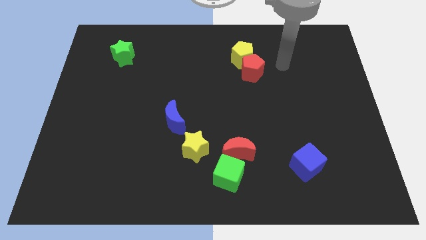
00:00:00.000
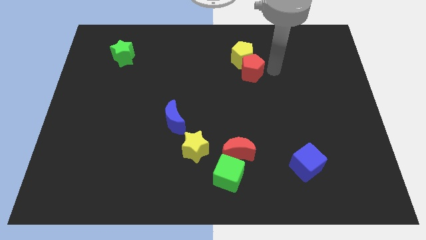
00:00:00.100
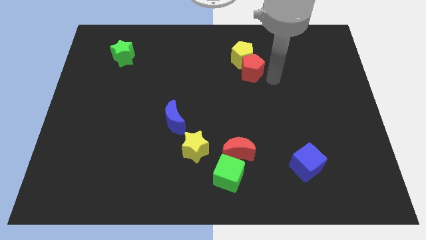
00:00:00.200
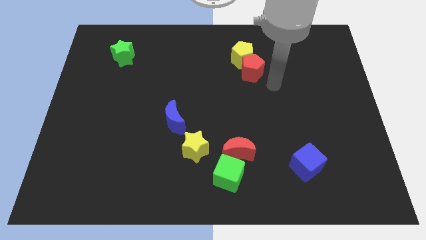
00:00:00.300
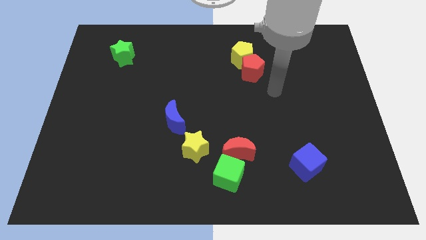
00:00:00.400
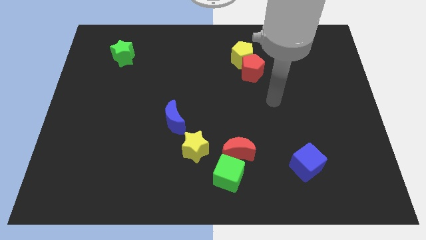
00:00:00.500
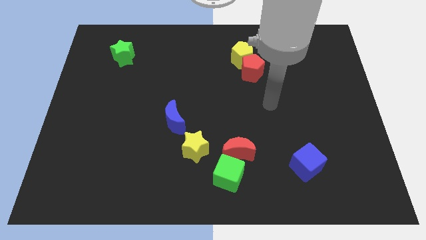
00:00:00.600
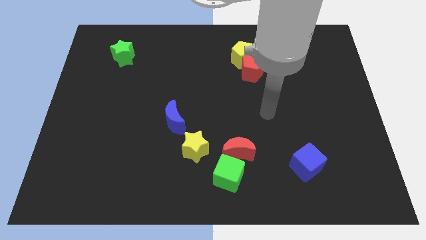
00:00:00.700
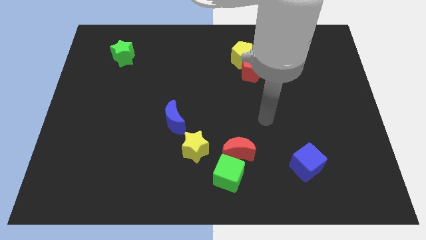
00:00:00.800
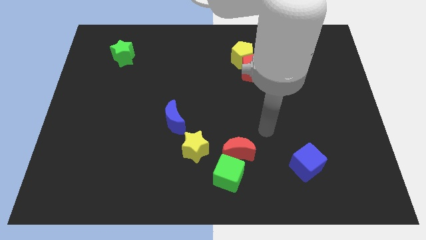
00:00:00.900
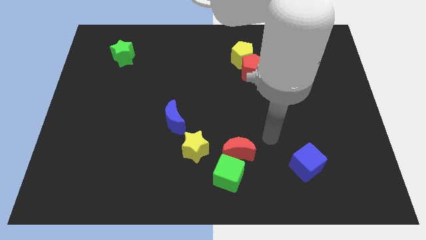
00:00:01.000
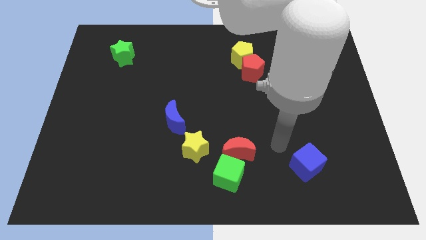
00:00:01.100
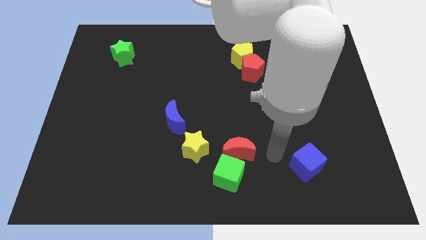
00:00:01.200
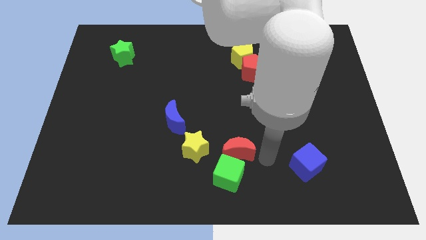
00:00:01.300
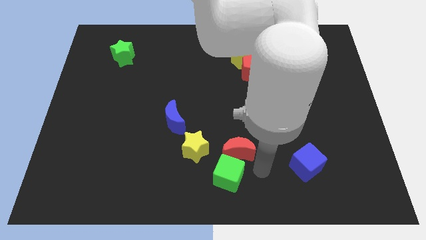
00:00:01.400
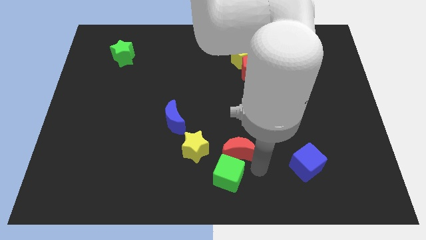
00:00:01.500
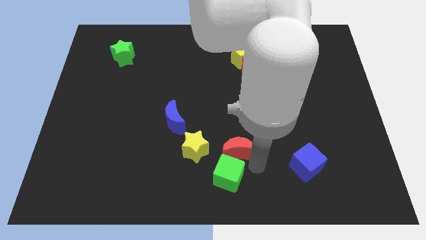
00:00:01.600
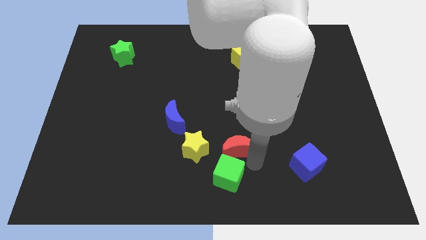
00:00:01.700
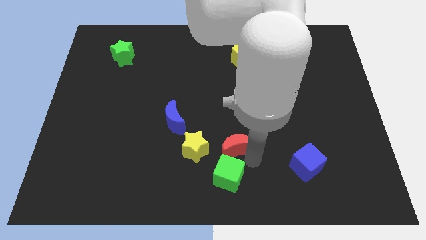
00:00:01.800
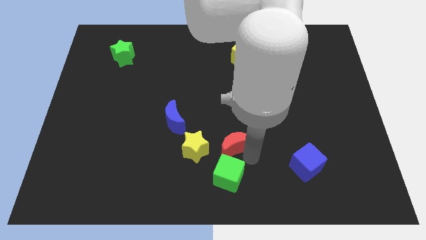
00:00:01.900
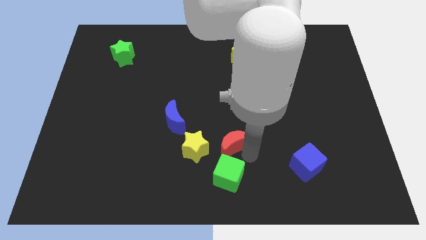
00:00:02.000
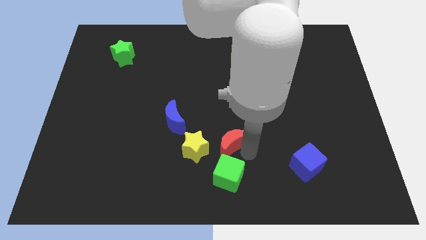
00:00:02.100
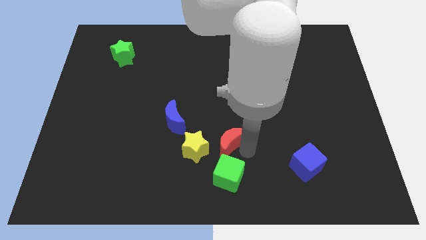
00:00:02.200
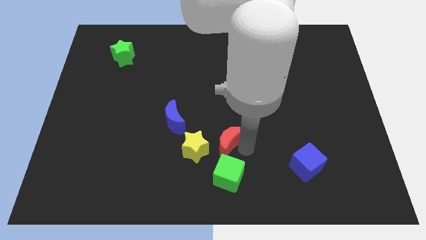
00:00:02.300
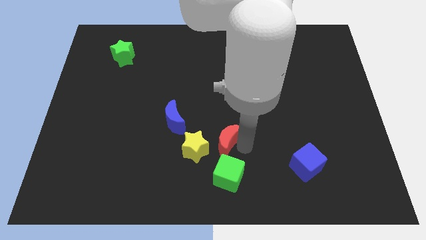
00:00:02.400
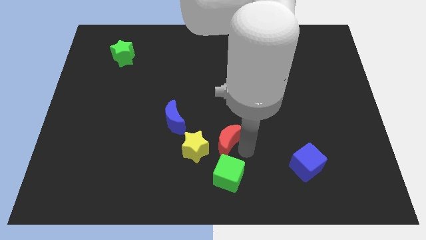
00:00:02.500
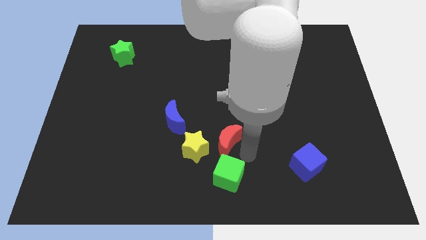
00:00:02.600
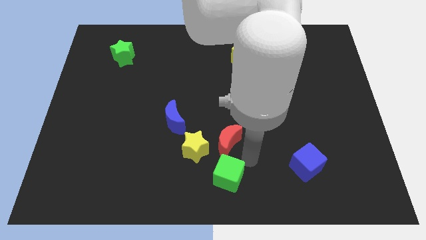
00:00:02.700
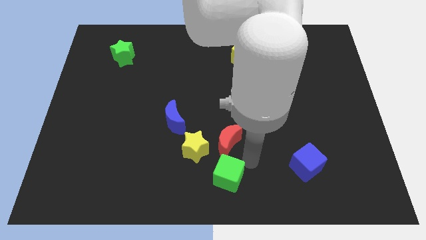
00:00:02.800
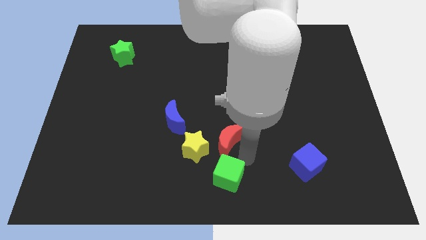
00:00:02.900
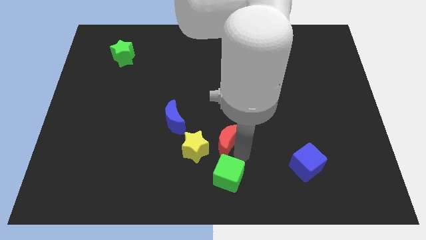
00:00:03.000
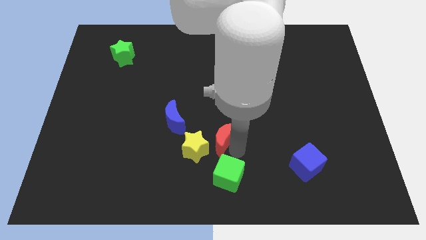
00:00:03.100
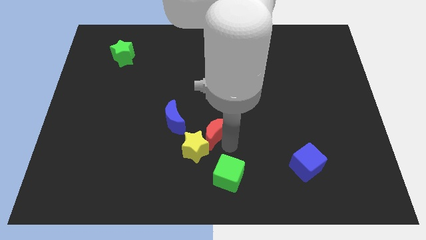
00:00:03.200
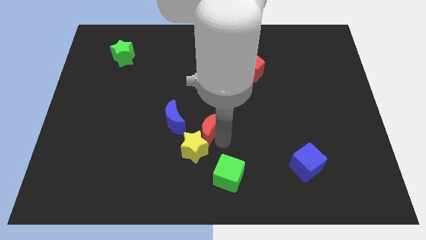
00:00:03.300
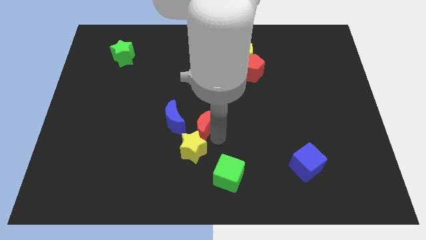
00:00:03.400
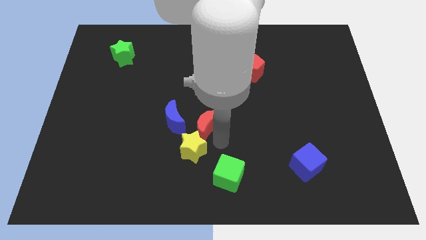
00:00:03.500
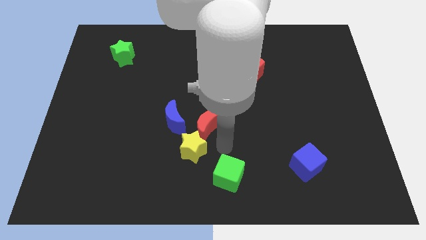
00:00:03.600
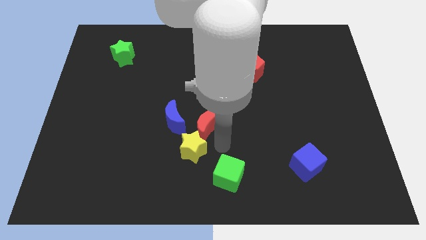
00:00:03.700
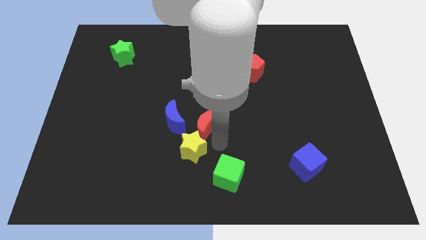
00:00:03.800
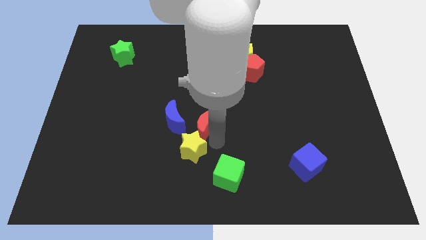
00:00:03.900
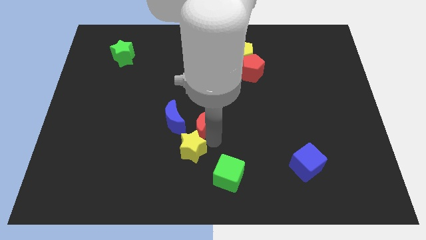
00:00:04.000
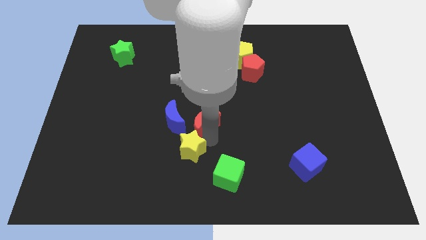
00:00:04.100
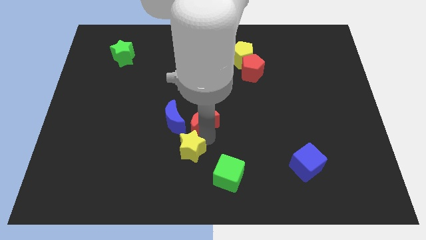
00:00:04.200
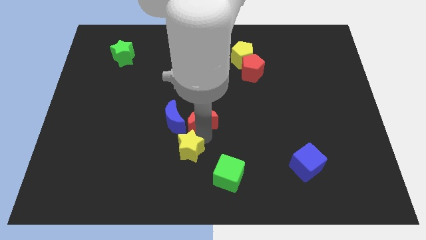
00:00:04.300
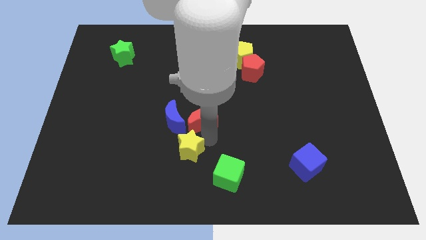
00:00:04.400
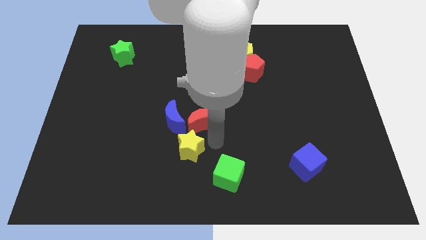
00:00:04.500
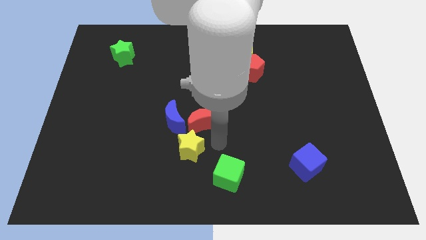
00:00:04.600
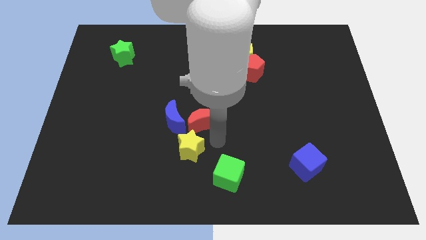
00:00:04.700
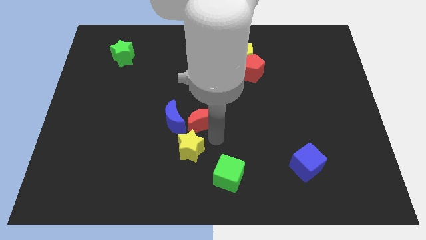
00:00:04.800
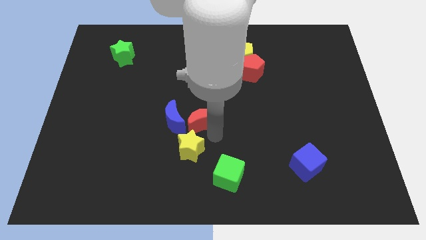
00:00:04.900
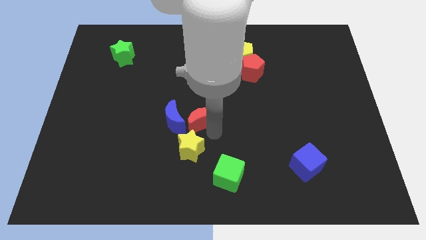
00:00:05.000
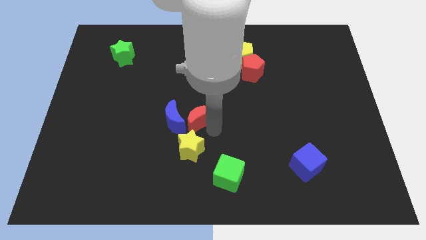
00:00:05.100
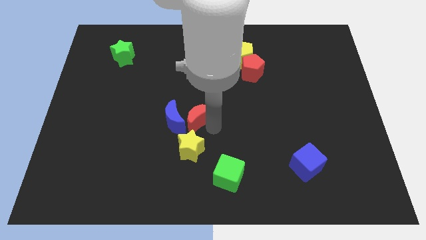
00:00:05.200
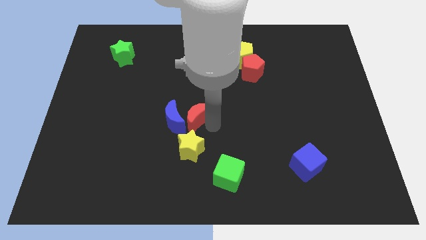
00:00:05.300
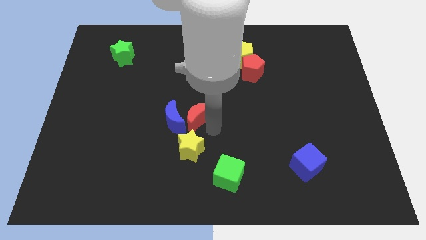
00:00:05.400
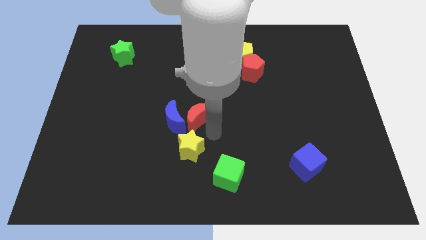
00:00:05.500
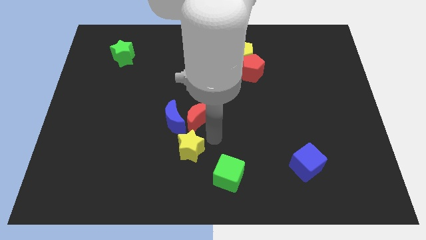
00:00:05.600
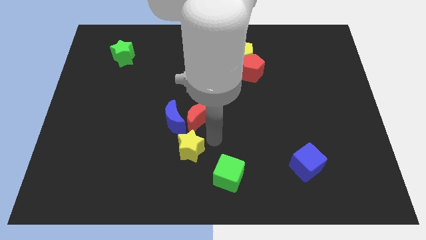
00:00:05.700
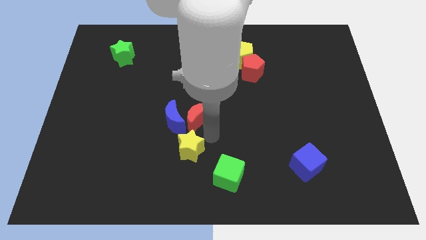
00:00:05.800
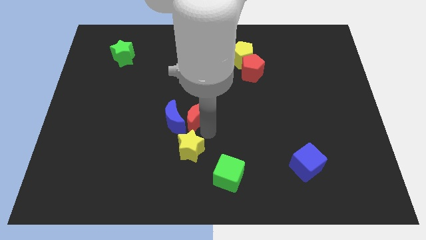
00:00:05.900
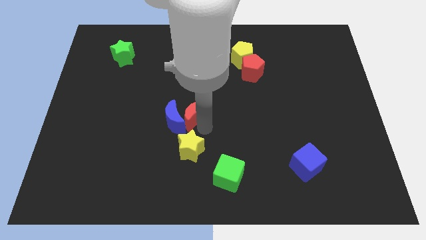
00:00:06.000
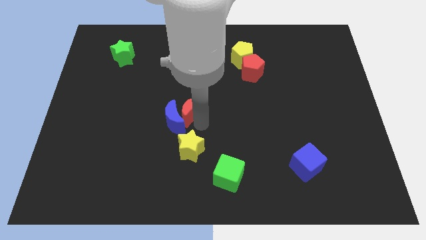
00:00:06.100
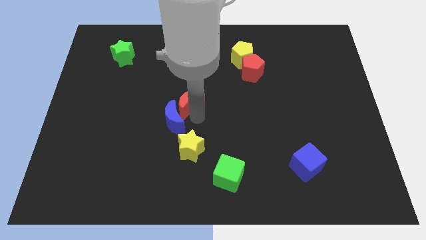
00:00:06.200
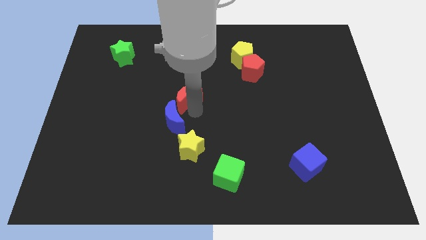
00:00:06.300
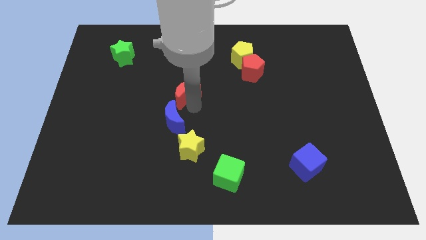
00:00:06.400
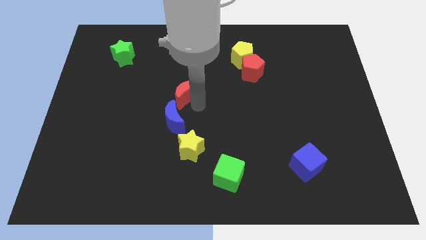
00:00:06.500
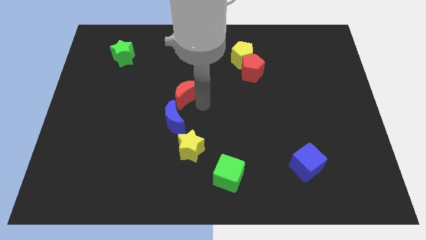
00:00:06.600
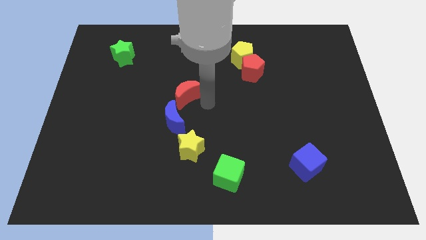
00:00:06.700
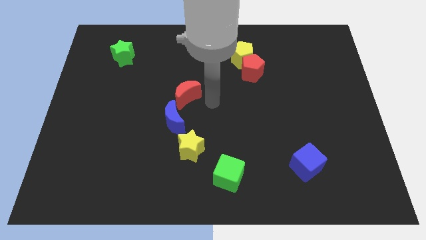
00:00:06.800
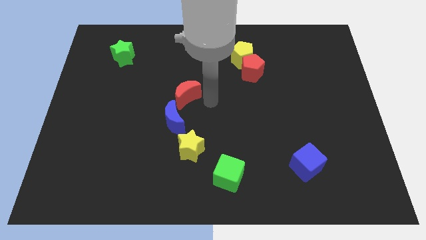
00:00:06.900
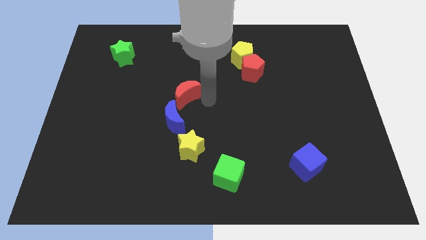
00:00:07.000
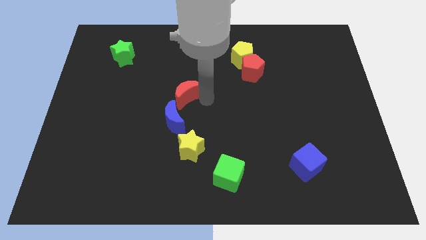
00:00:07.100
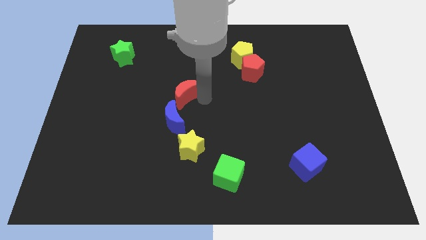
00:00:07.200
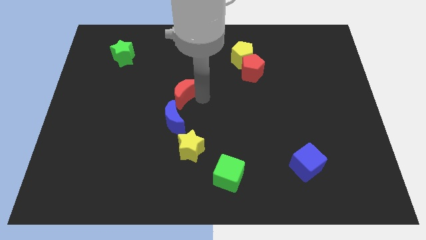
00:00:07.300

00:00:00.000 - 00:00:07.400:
slide the red moon diagonally up and left

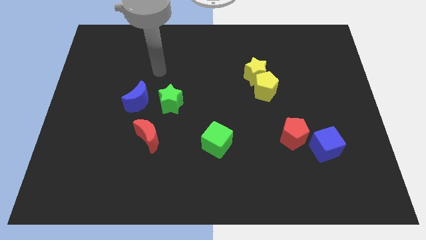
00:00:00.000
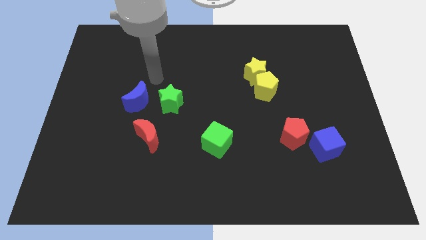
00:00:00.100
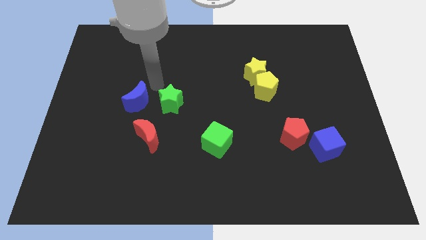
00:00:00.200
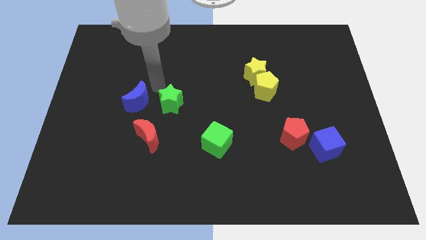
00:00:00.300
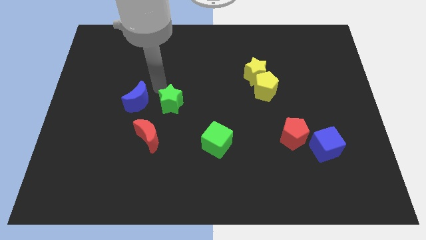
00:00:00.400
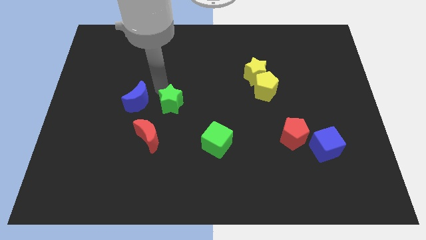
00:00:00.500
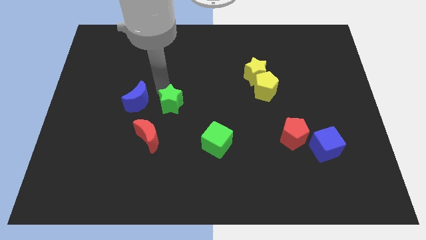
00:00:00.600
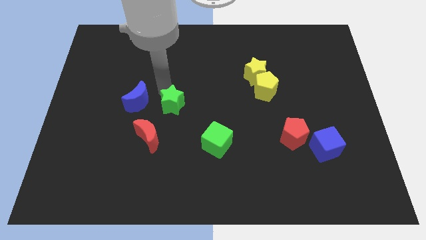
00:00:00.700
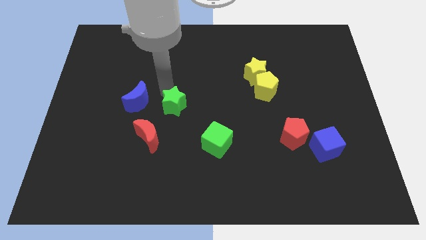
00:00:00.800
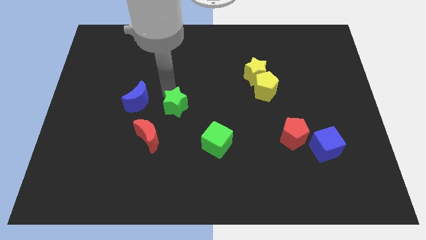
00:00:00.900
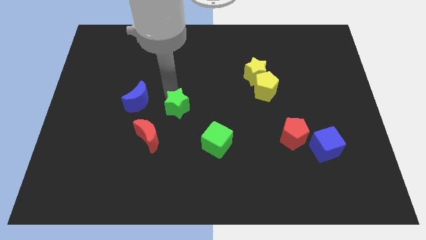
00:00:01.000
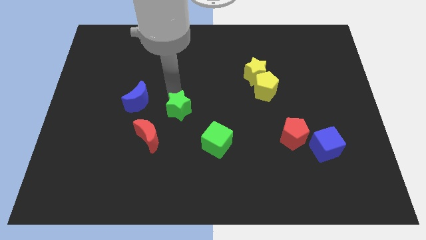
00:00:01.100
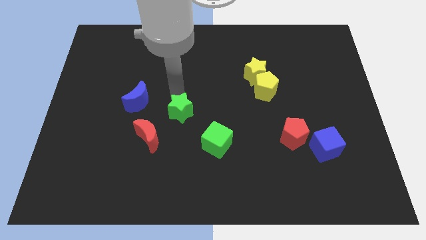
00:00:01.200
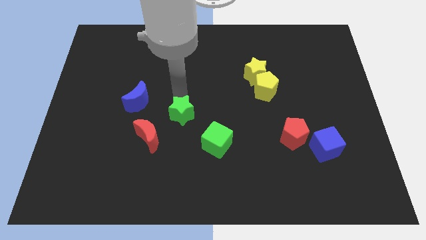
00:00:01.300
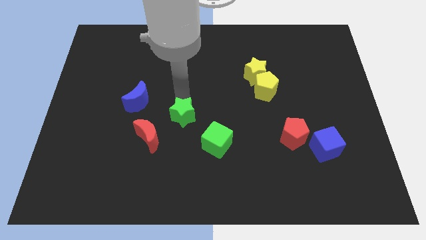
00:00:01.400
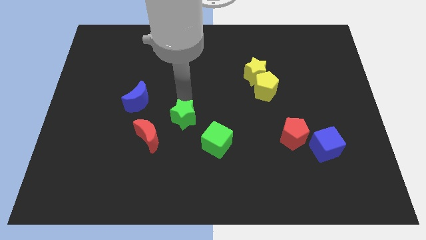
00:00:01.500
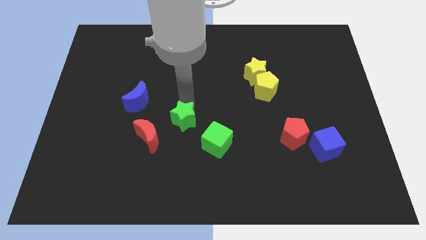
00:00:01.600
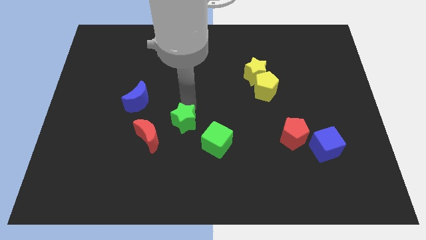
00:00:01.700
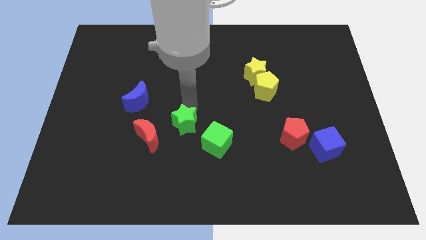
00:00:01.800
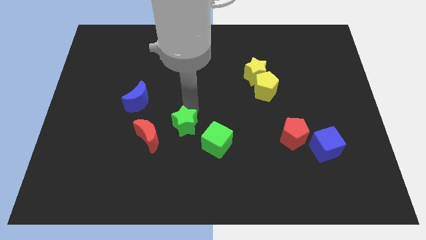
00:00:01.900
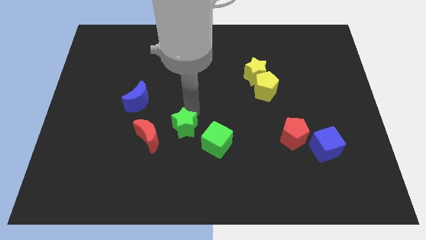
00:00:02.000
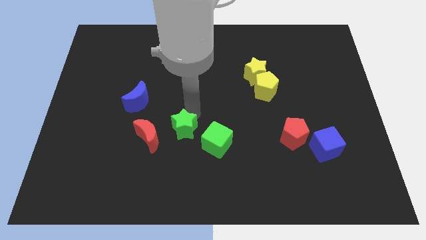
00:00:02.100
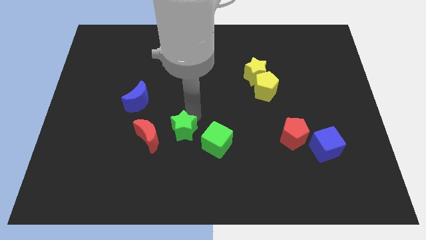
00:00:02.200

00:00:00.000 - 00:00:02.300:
slightly move the green star down
